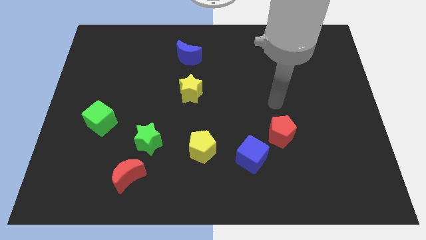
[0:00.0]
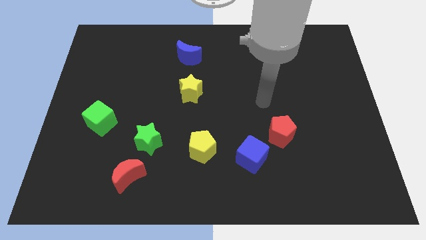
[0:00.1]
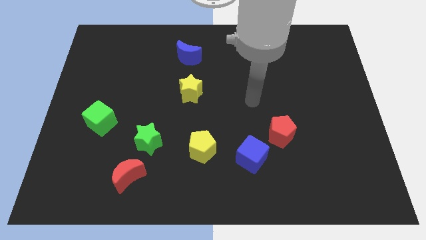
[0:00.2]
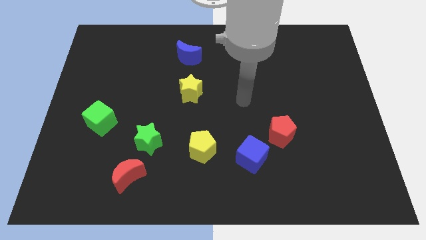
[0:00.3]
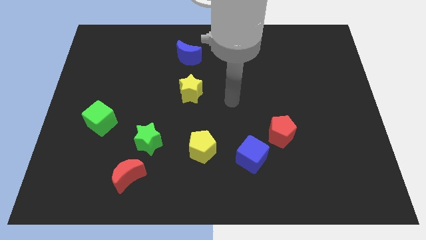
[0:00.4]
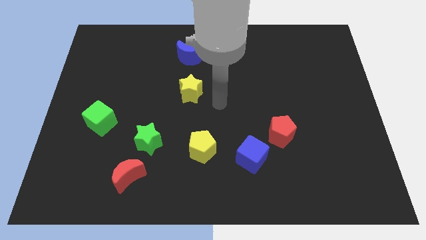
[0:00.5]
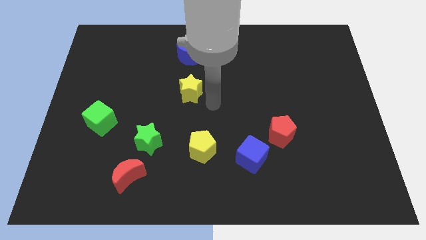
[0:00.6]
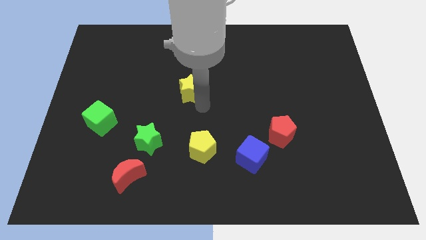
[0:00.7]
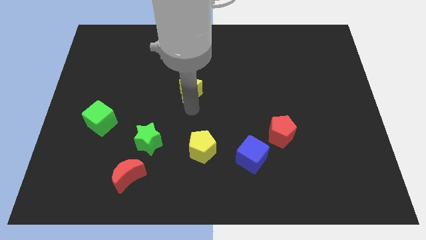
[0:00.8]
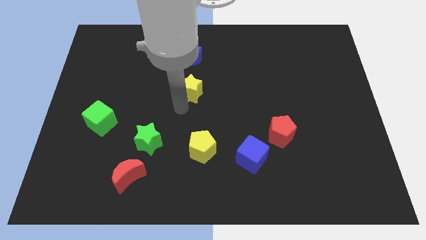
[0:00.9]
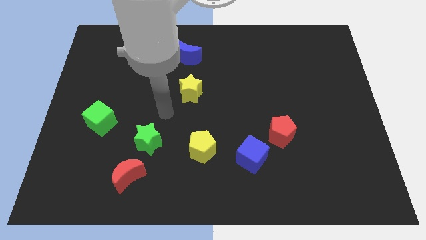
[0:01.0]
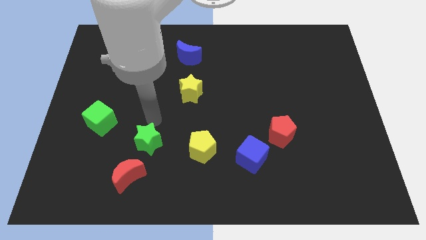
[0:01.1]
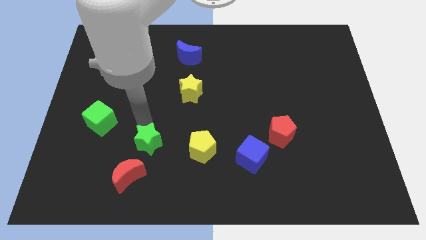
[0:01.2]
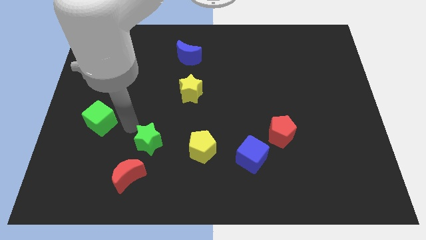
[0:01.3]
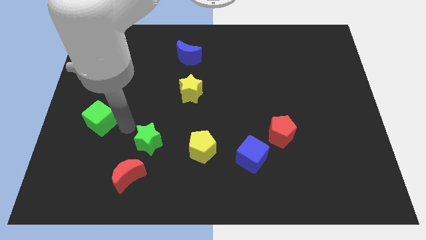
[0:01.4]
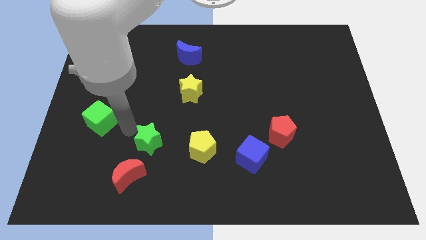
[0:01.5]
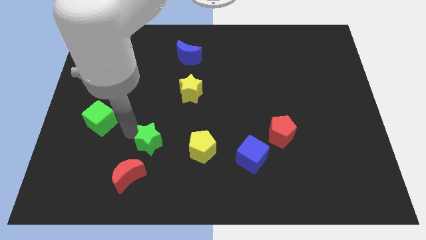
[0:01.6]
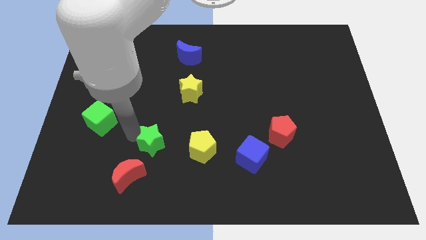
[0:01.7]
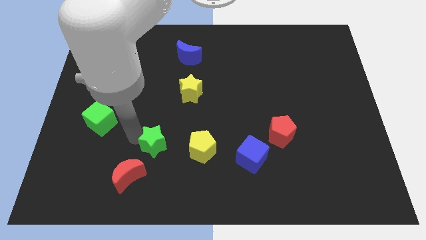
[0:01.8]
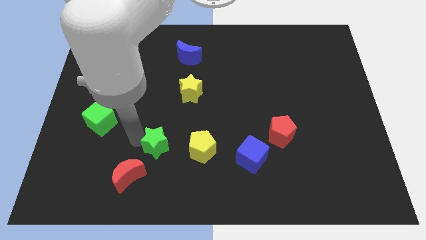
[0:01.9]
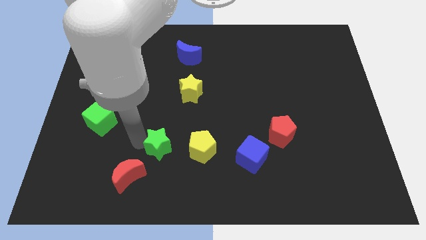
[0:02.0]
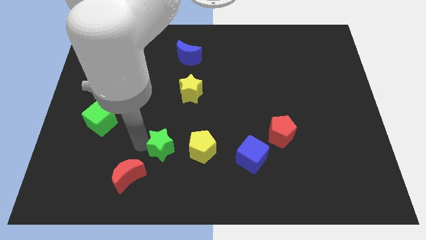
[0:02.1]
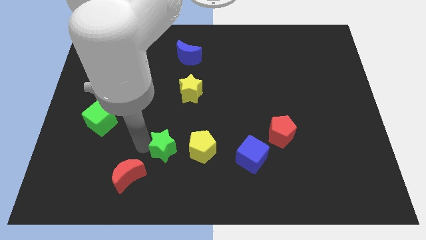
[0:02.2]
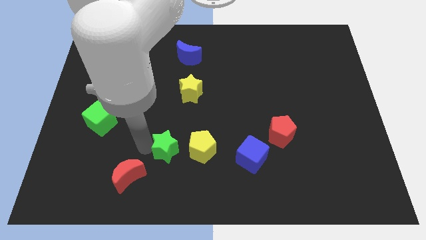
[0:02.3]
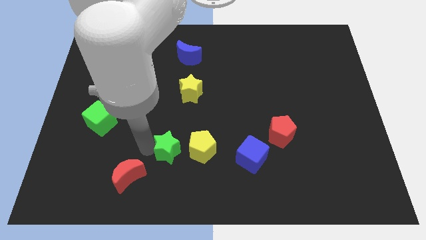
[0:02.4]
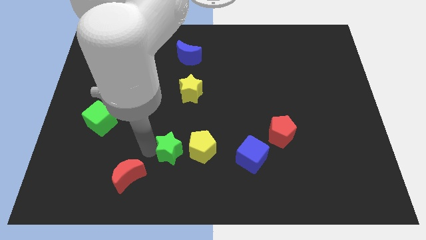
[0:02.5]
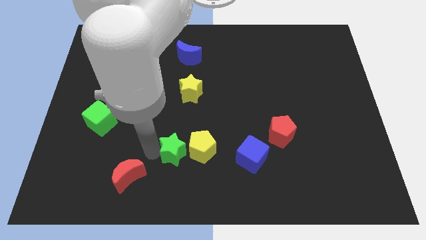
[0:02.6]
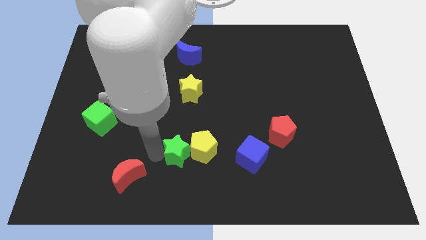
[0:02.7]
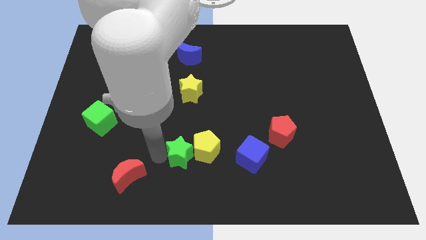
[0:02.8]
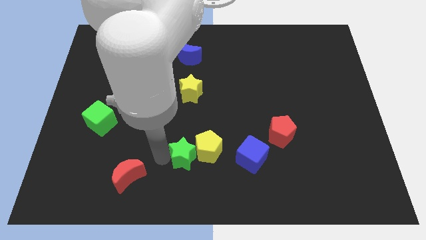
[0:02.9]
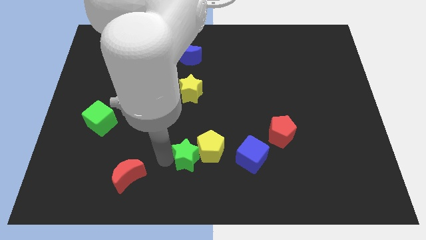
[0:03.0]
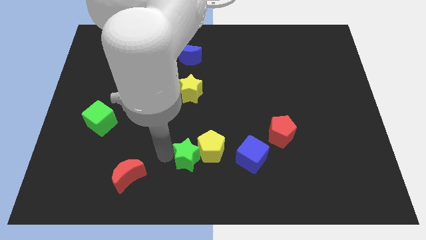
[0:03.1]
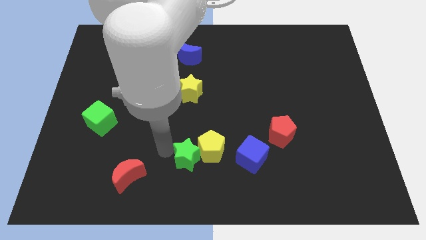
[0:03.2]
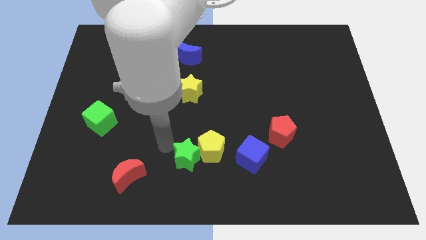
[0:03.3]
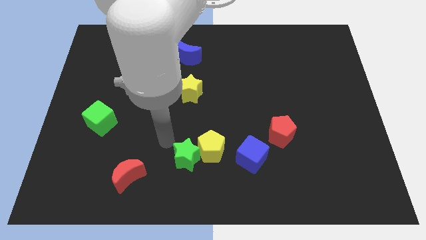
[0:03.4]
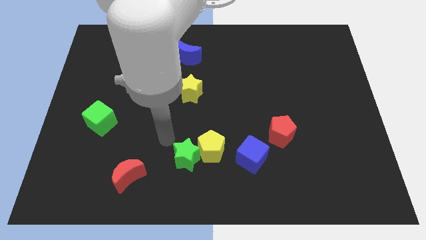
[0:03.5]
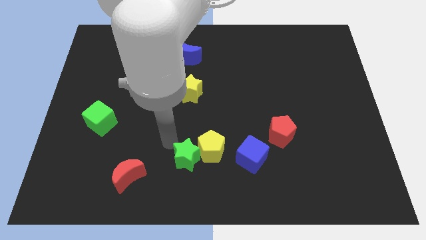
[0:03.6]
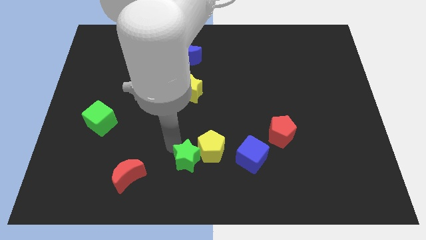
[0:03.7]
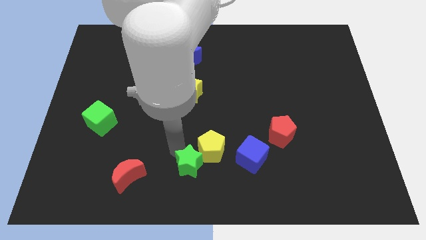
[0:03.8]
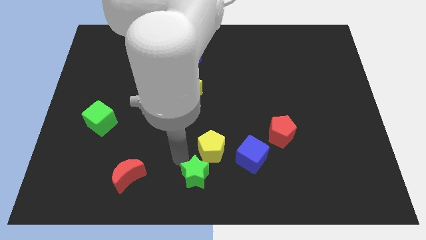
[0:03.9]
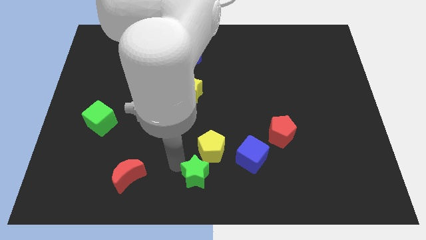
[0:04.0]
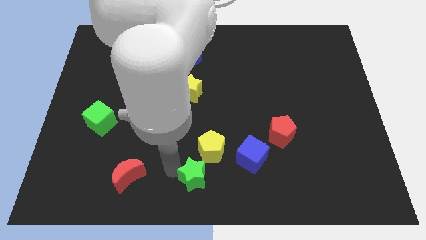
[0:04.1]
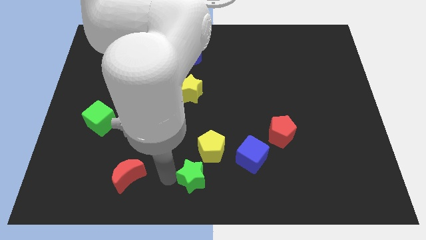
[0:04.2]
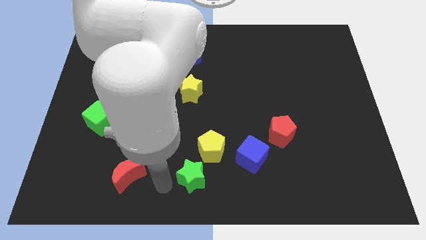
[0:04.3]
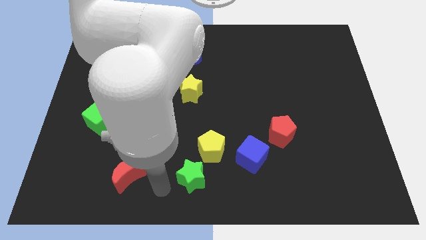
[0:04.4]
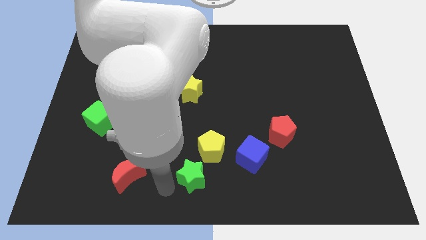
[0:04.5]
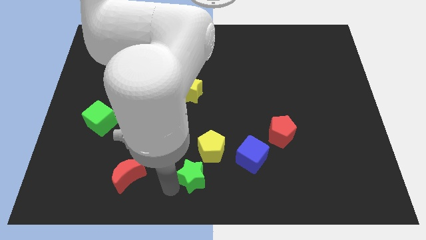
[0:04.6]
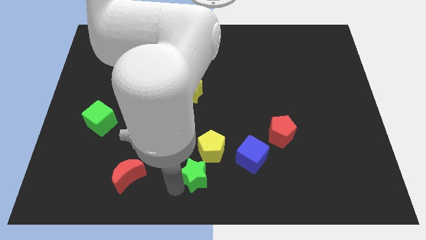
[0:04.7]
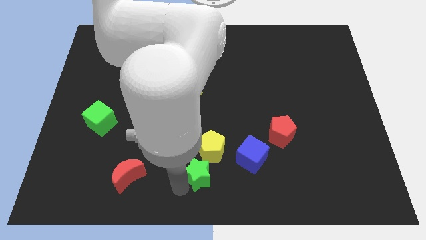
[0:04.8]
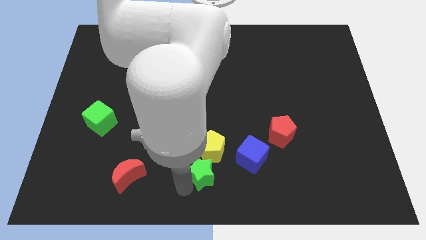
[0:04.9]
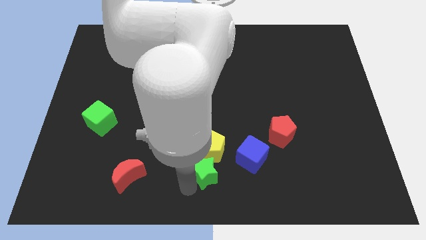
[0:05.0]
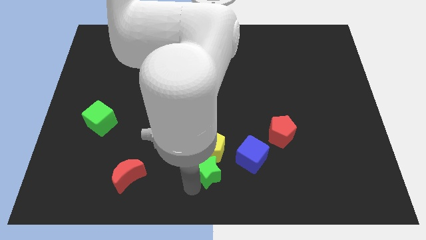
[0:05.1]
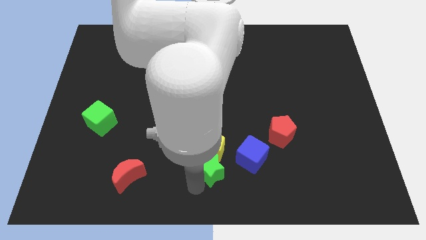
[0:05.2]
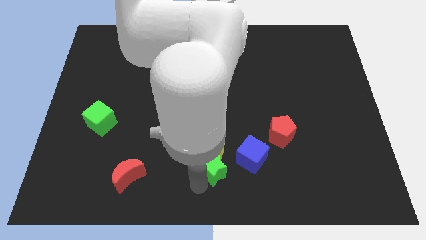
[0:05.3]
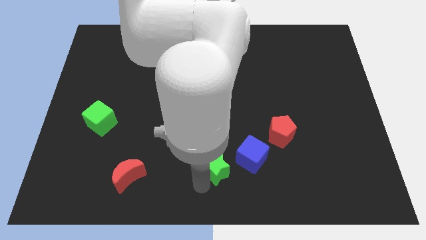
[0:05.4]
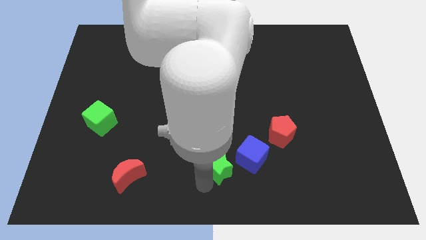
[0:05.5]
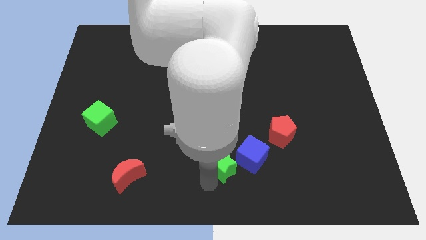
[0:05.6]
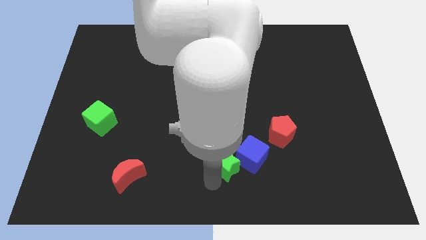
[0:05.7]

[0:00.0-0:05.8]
put the green star close to the blue cube

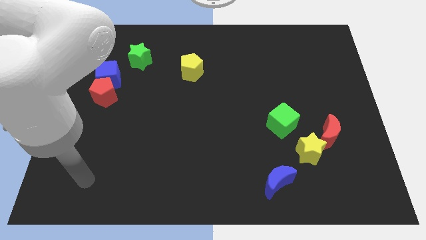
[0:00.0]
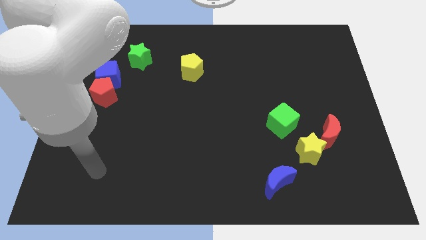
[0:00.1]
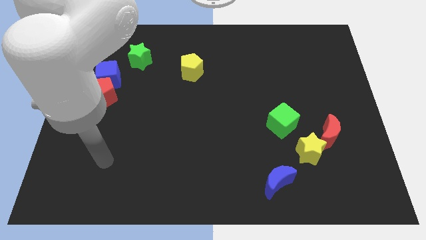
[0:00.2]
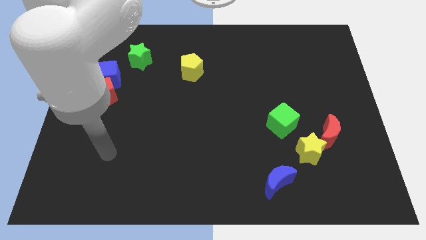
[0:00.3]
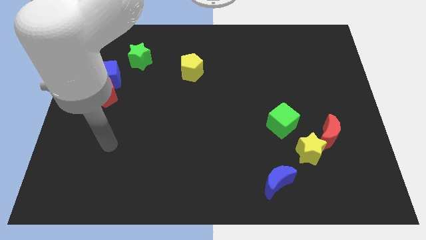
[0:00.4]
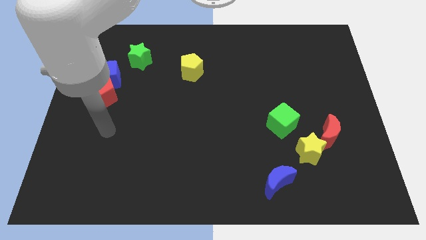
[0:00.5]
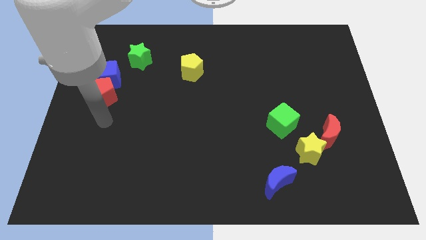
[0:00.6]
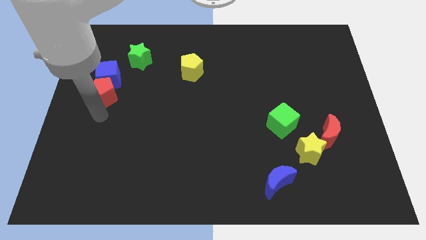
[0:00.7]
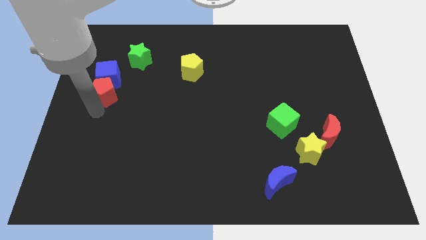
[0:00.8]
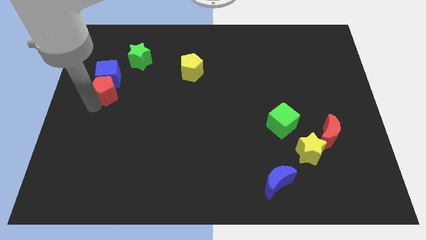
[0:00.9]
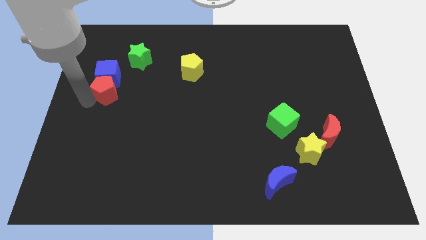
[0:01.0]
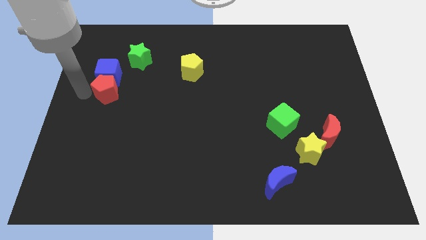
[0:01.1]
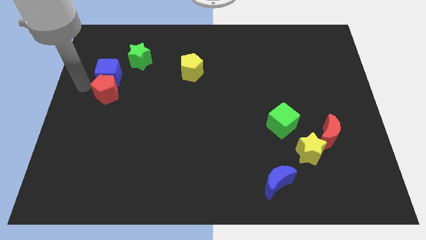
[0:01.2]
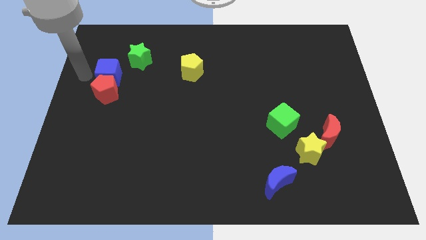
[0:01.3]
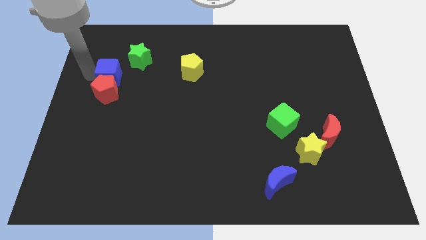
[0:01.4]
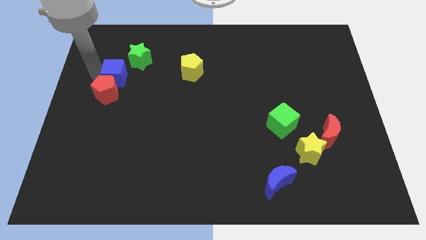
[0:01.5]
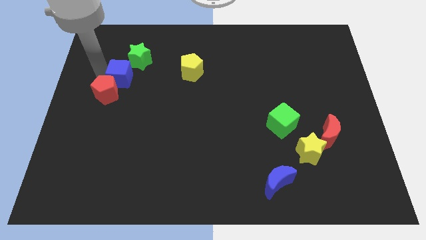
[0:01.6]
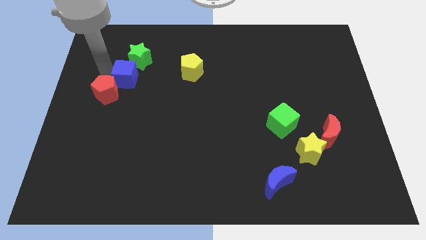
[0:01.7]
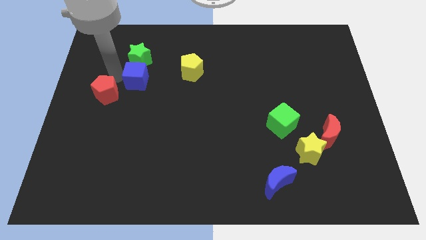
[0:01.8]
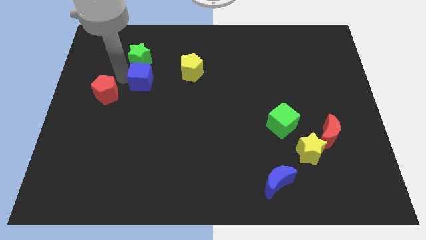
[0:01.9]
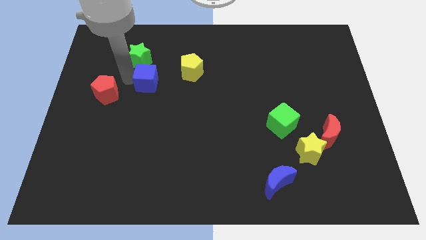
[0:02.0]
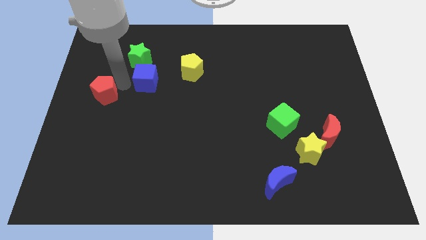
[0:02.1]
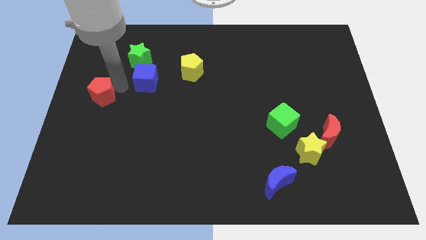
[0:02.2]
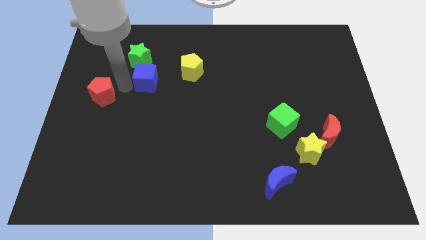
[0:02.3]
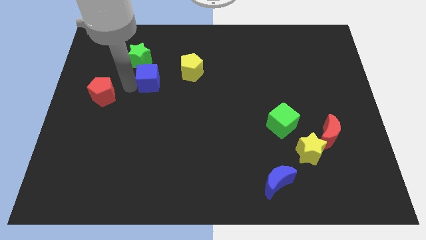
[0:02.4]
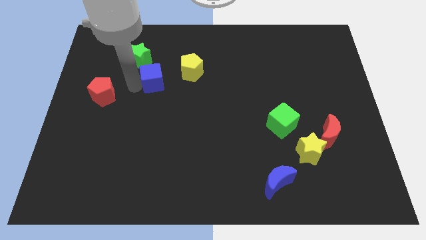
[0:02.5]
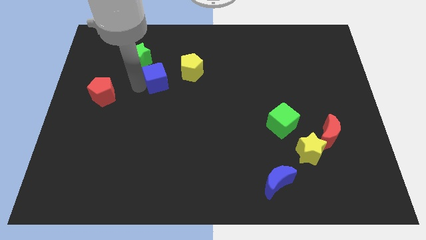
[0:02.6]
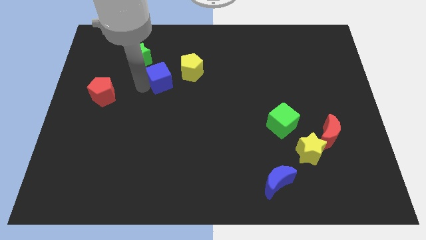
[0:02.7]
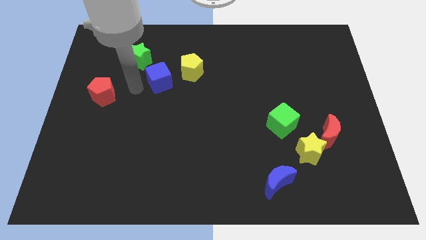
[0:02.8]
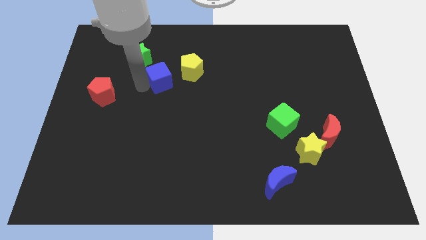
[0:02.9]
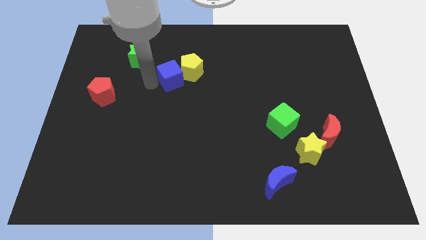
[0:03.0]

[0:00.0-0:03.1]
put the blue cube towards the yellow pentagon
